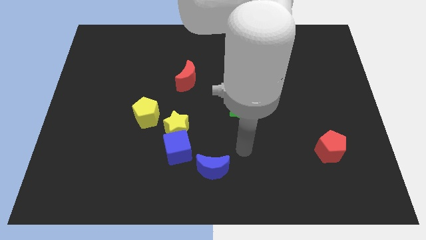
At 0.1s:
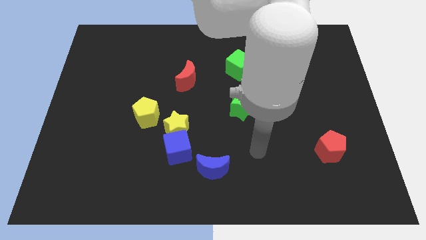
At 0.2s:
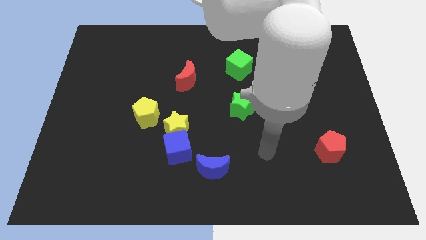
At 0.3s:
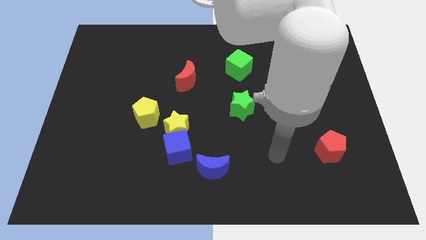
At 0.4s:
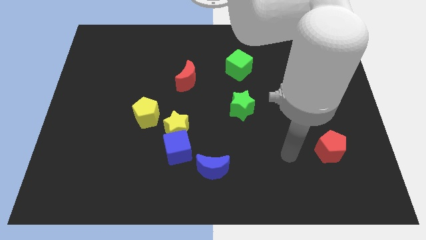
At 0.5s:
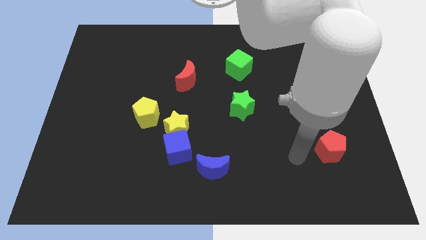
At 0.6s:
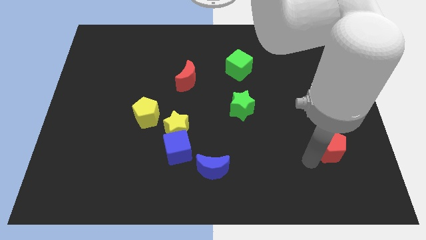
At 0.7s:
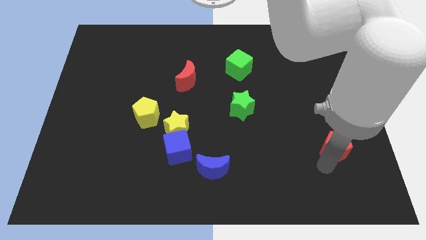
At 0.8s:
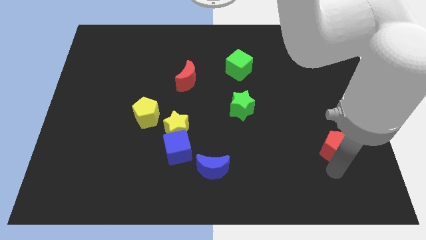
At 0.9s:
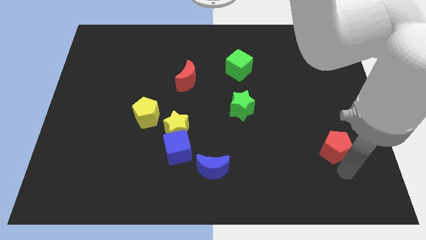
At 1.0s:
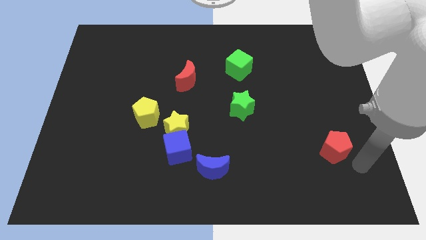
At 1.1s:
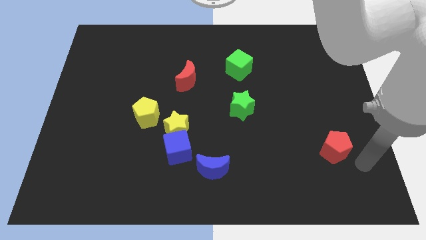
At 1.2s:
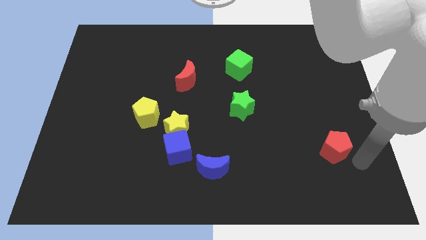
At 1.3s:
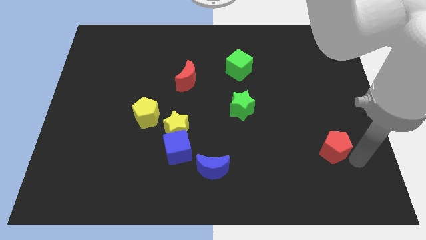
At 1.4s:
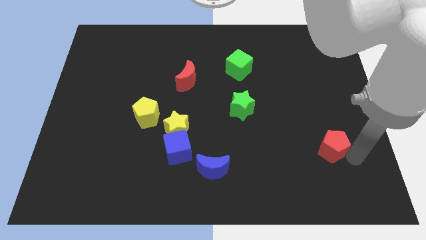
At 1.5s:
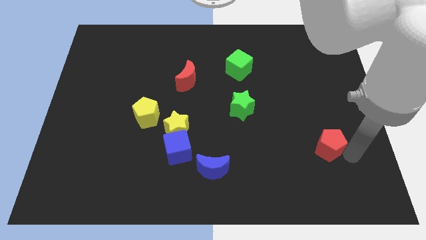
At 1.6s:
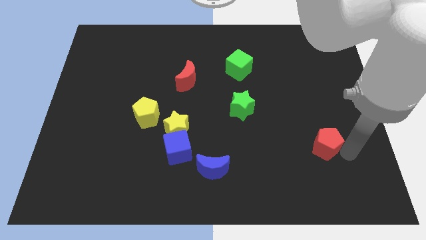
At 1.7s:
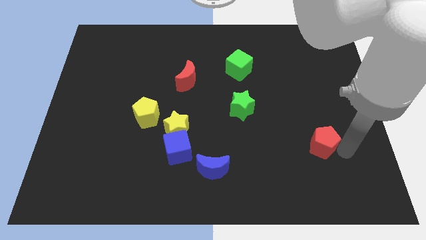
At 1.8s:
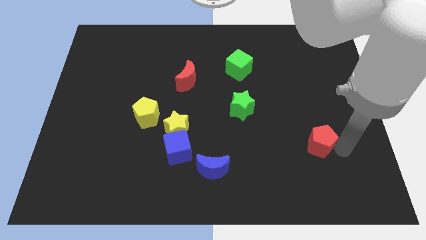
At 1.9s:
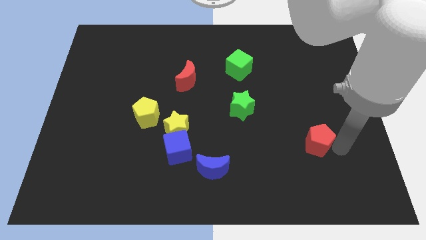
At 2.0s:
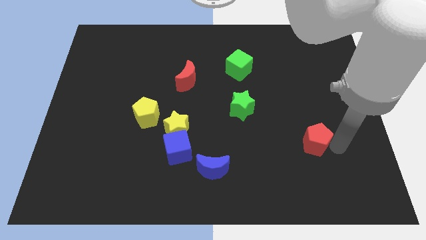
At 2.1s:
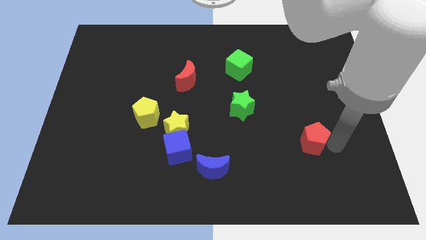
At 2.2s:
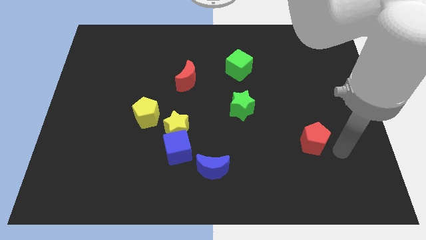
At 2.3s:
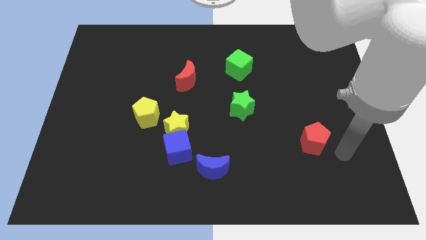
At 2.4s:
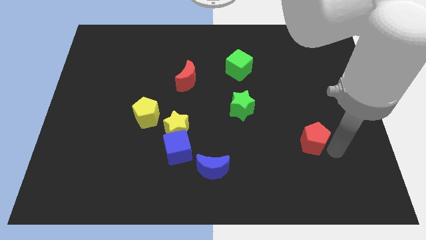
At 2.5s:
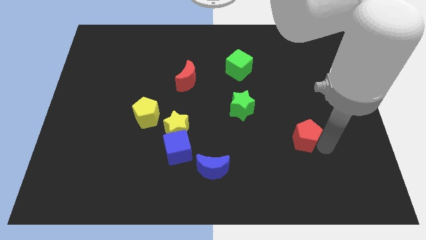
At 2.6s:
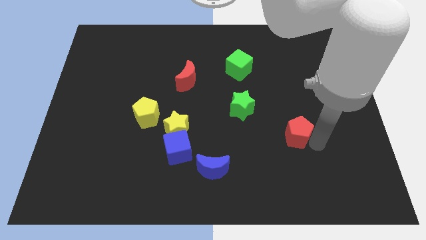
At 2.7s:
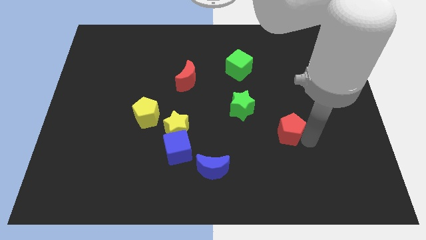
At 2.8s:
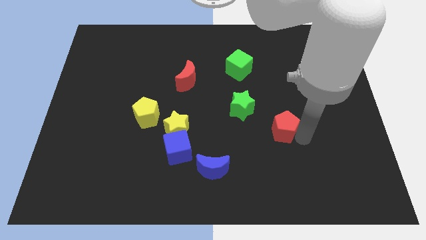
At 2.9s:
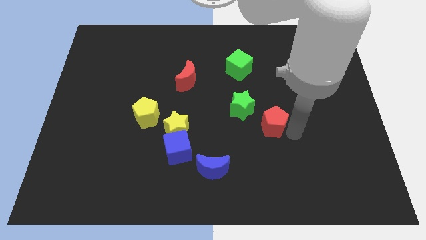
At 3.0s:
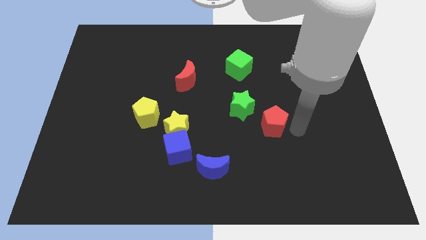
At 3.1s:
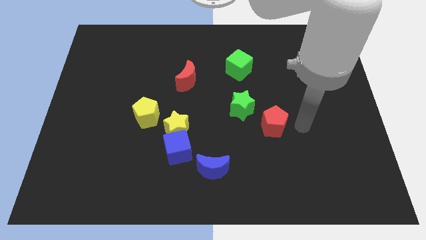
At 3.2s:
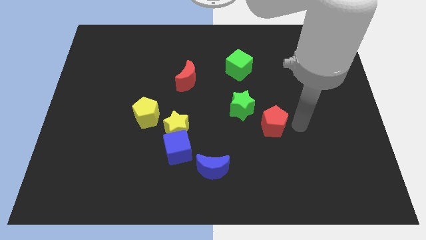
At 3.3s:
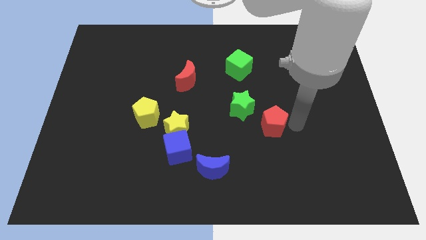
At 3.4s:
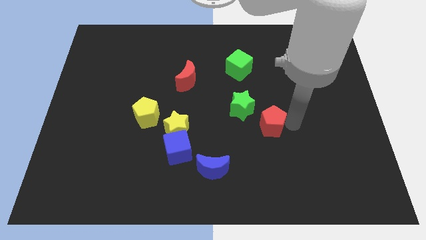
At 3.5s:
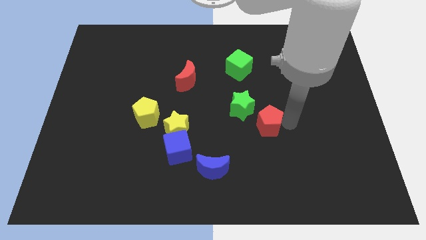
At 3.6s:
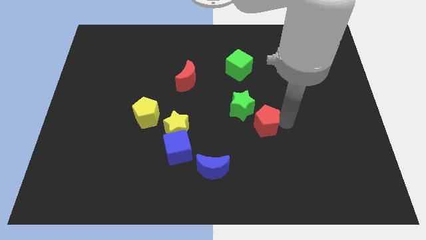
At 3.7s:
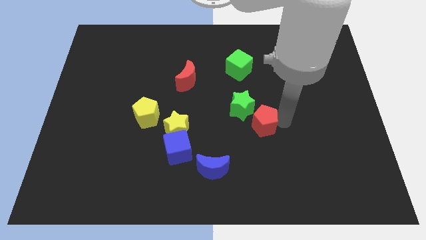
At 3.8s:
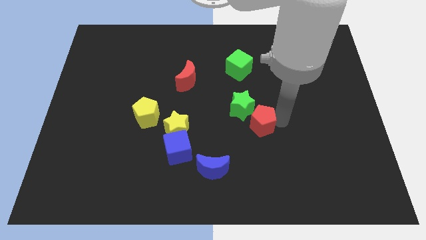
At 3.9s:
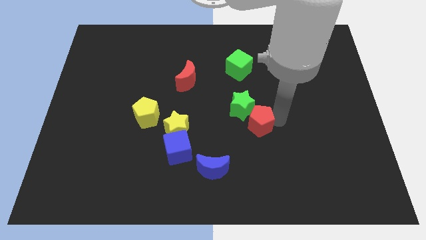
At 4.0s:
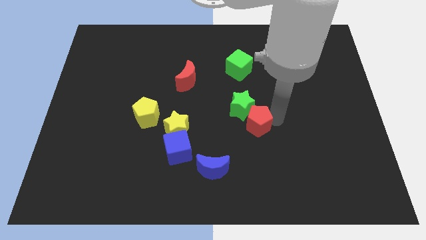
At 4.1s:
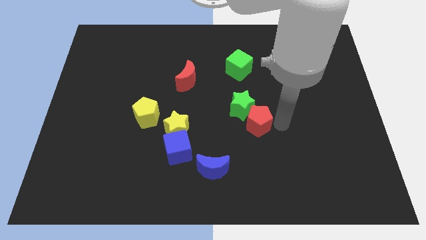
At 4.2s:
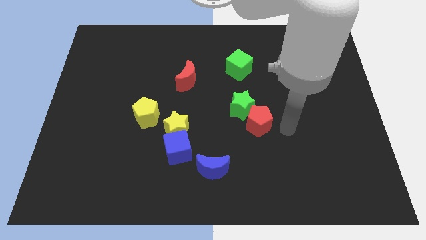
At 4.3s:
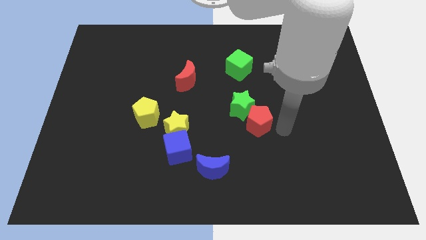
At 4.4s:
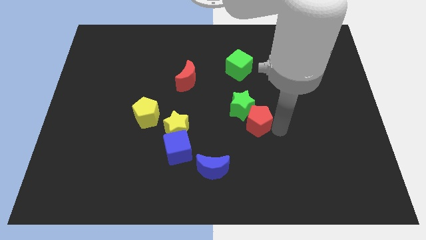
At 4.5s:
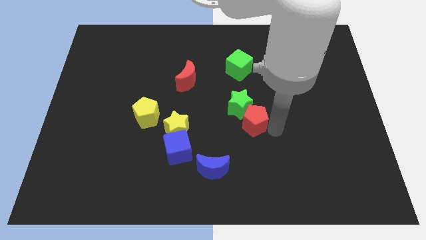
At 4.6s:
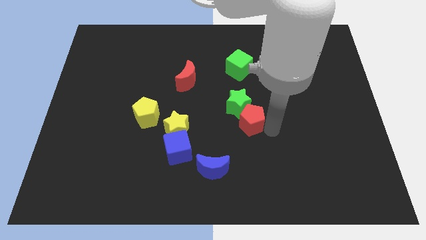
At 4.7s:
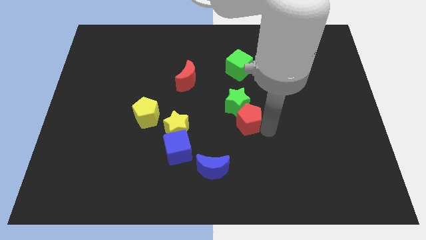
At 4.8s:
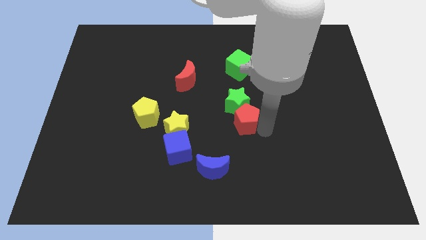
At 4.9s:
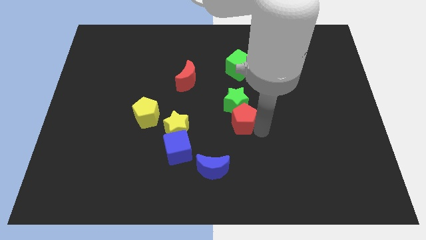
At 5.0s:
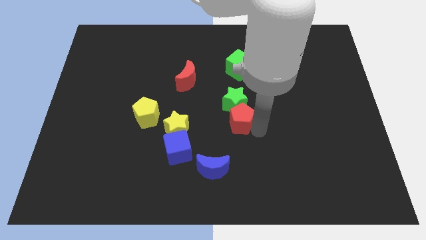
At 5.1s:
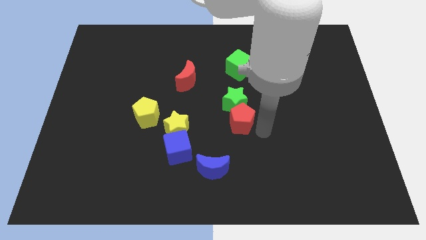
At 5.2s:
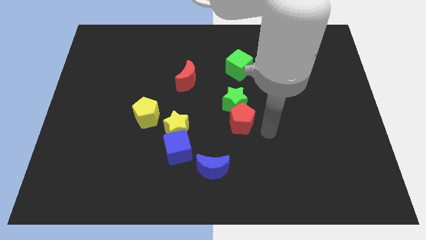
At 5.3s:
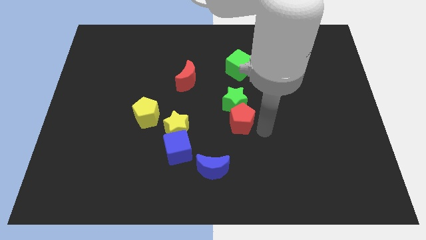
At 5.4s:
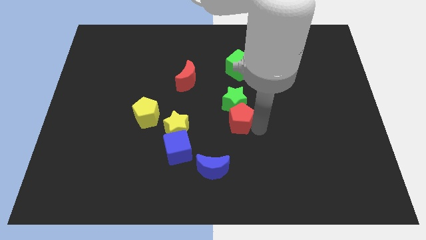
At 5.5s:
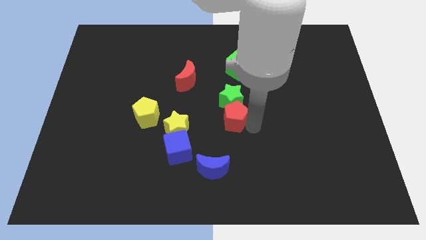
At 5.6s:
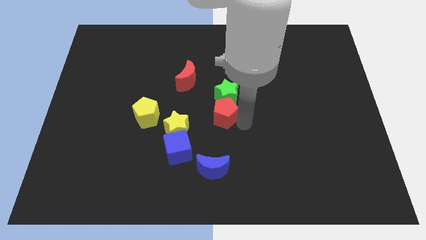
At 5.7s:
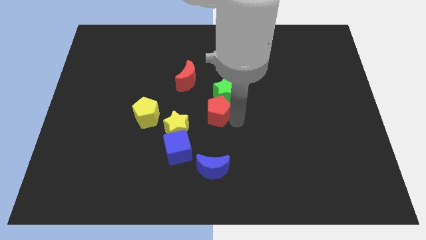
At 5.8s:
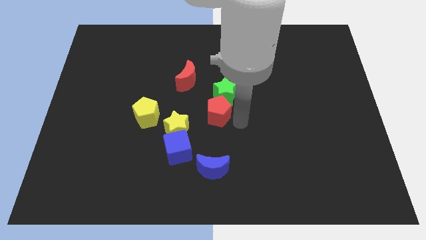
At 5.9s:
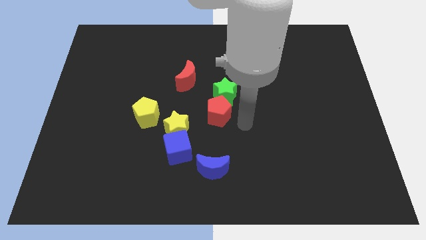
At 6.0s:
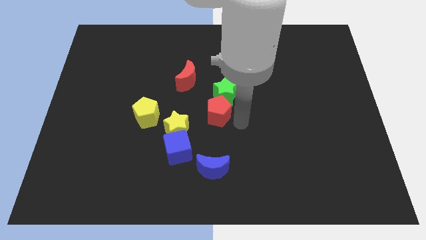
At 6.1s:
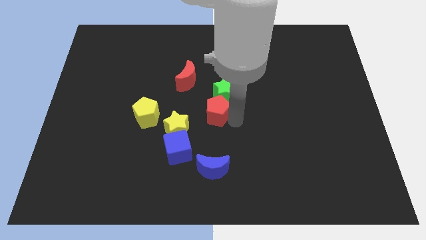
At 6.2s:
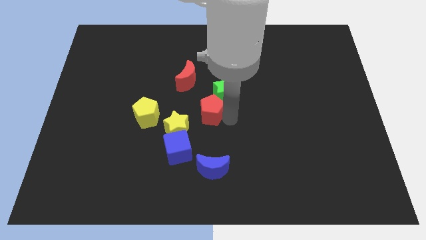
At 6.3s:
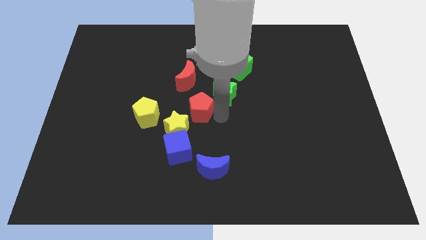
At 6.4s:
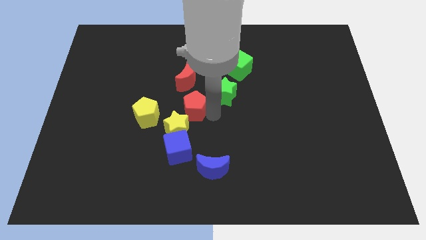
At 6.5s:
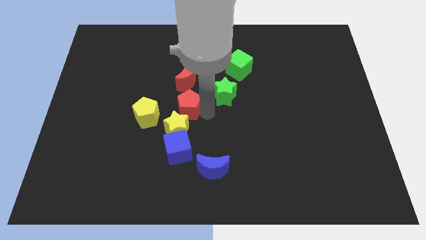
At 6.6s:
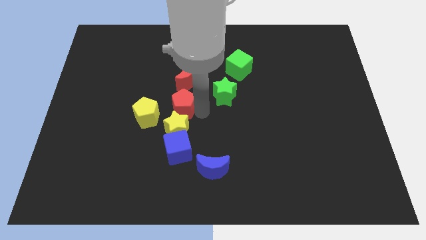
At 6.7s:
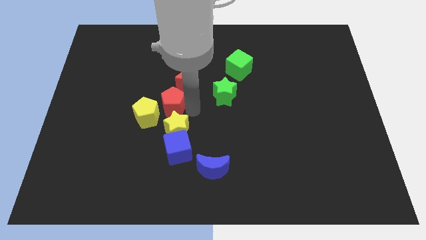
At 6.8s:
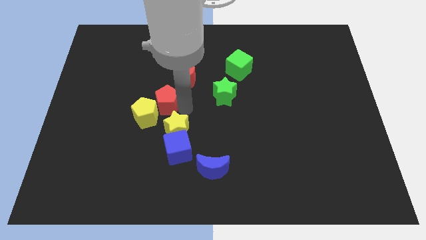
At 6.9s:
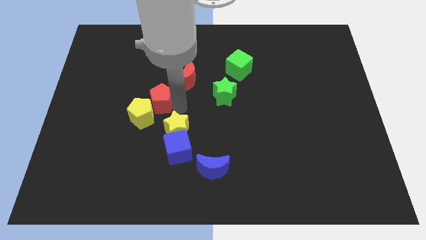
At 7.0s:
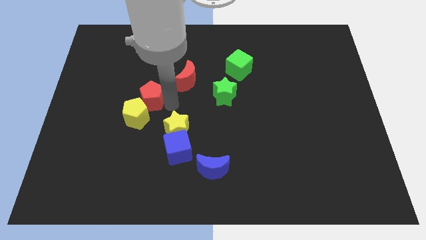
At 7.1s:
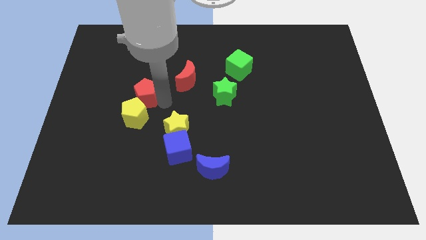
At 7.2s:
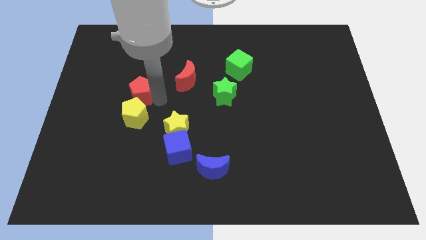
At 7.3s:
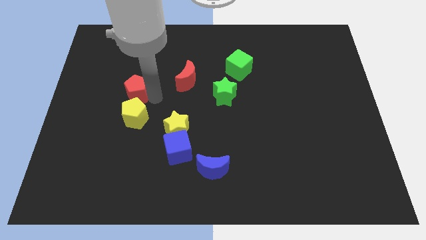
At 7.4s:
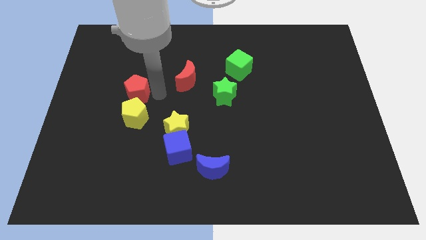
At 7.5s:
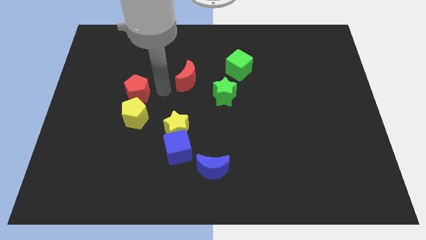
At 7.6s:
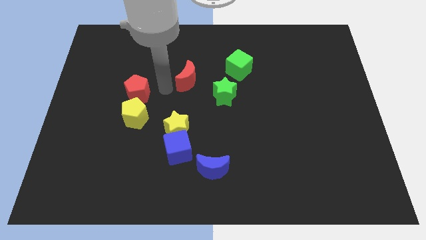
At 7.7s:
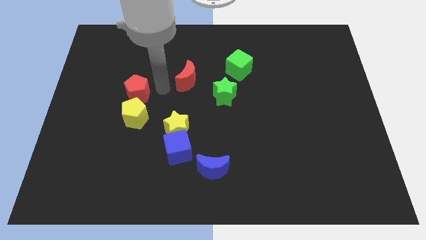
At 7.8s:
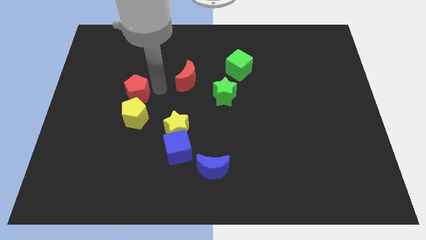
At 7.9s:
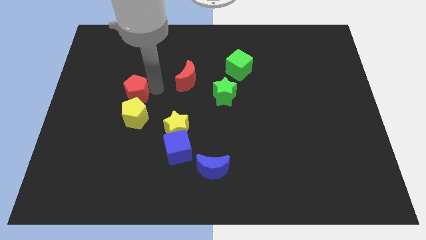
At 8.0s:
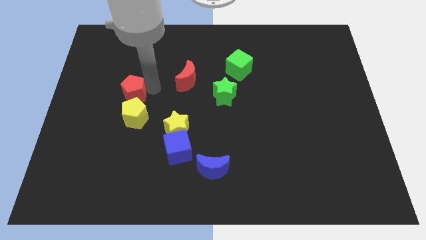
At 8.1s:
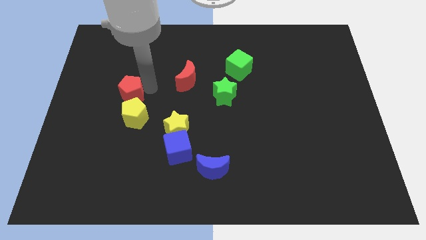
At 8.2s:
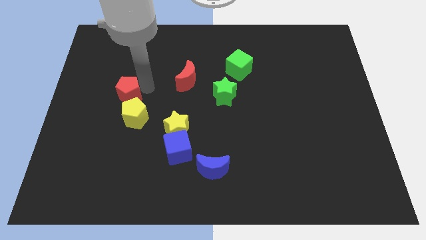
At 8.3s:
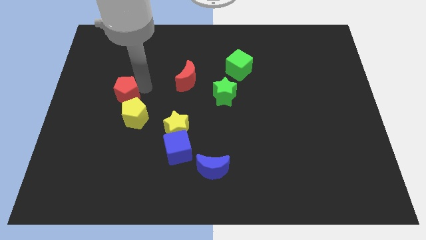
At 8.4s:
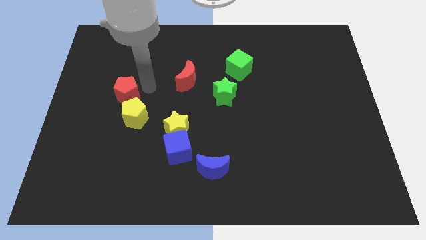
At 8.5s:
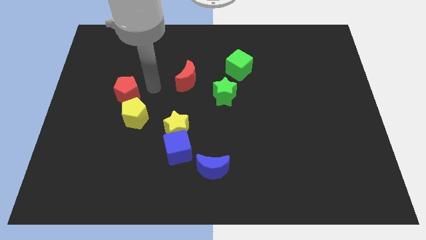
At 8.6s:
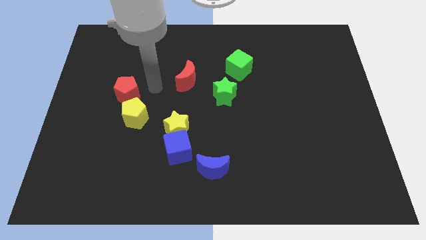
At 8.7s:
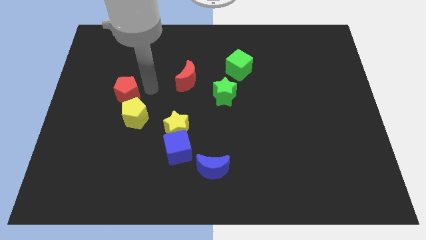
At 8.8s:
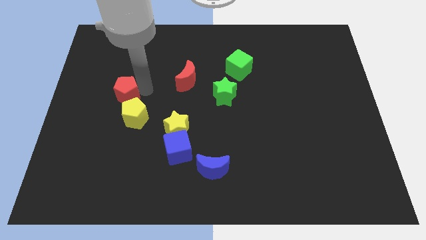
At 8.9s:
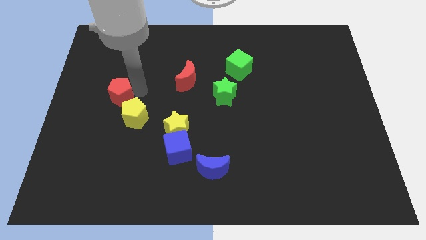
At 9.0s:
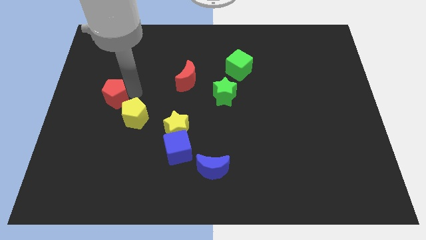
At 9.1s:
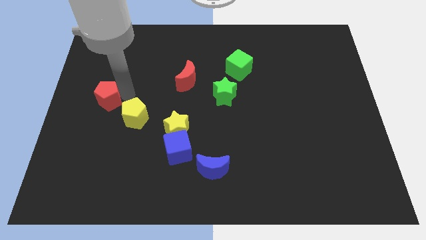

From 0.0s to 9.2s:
slide the red pentagon to the left side of the board
